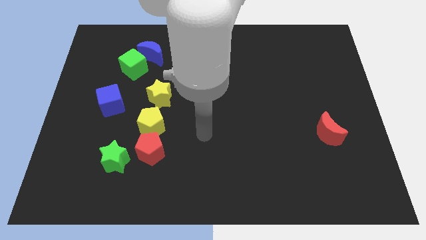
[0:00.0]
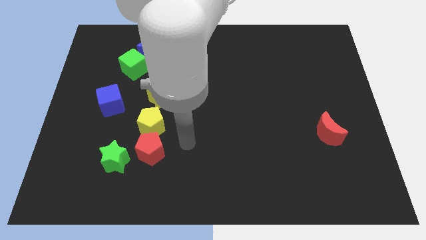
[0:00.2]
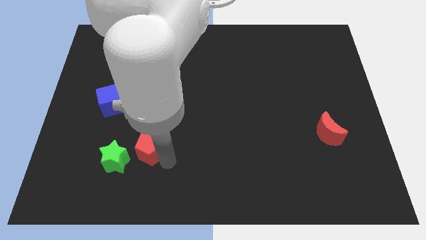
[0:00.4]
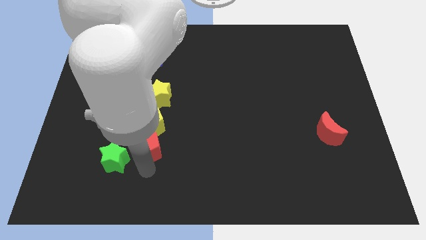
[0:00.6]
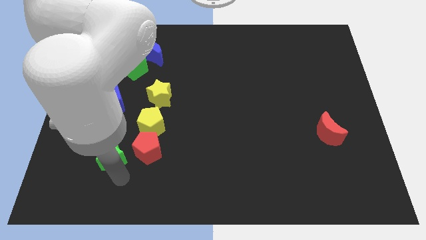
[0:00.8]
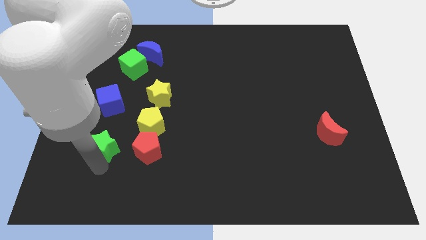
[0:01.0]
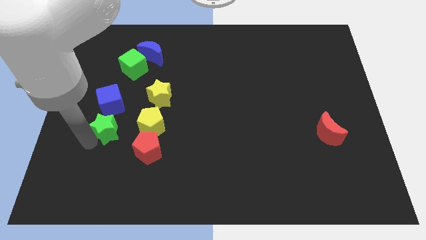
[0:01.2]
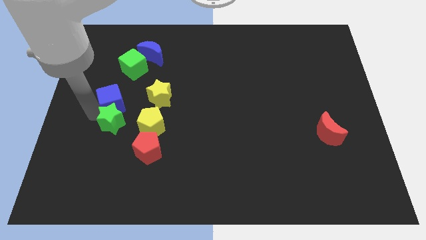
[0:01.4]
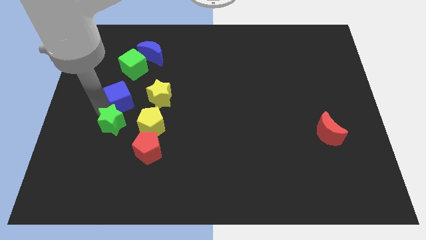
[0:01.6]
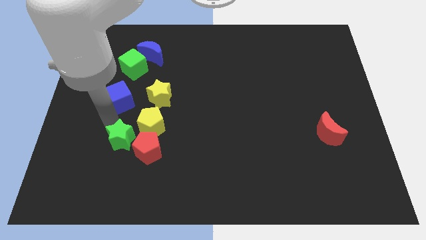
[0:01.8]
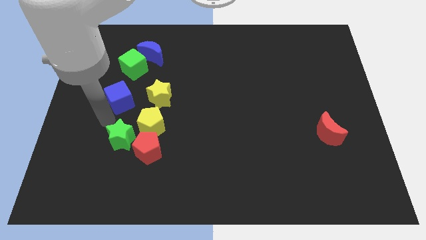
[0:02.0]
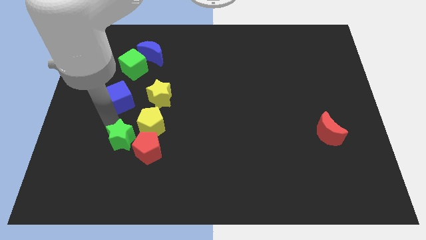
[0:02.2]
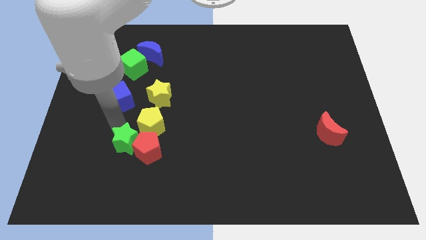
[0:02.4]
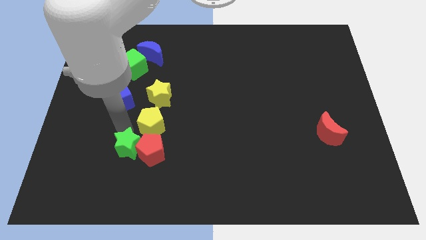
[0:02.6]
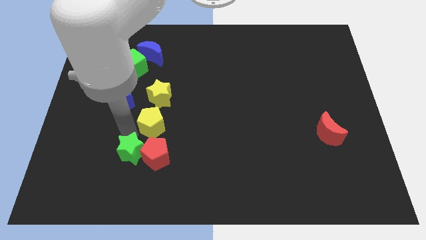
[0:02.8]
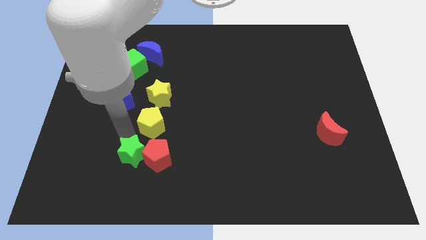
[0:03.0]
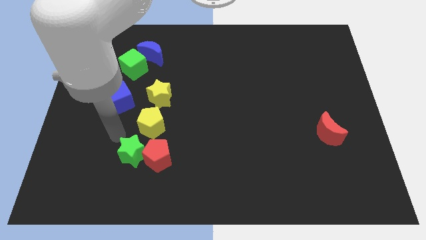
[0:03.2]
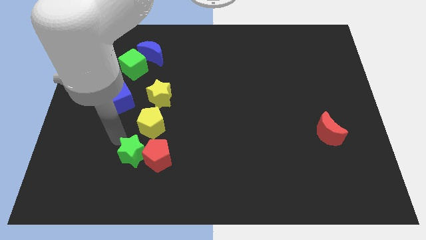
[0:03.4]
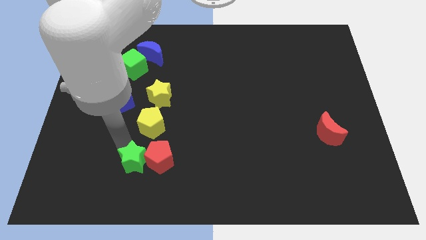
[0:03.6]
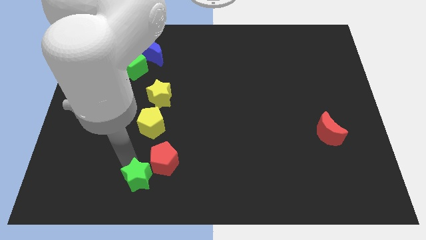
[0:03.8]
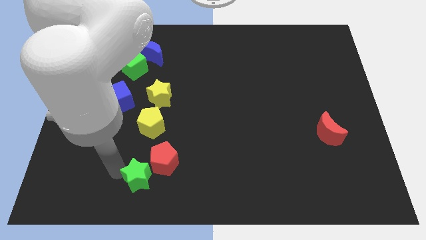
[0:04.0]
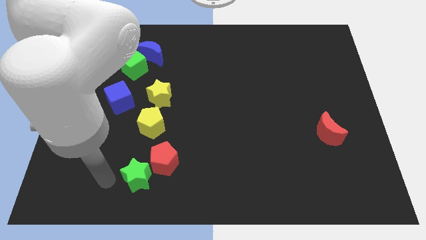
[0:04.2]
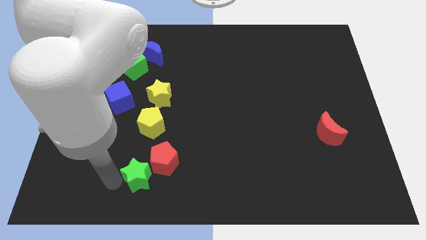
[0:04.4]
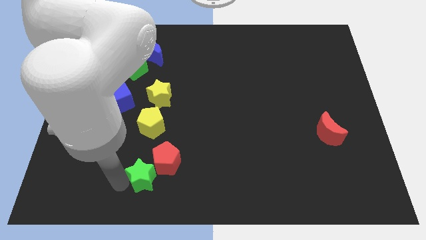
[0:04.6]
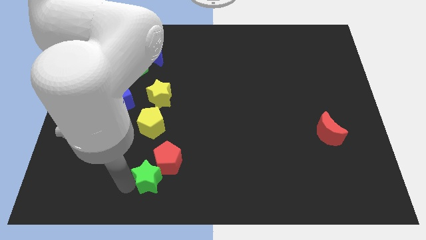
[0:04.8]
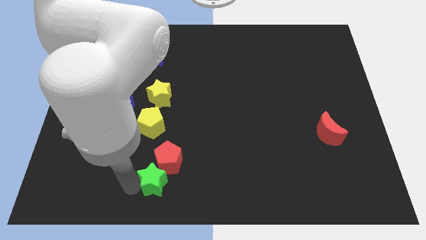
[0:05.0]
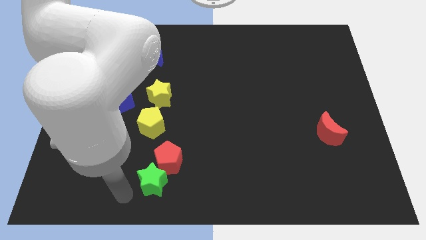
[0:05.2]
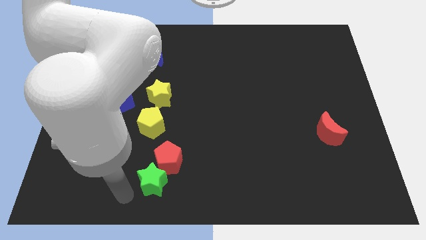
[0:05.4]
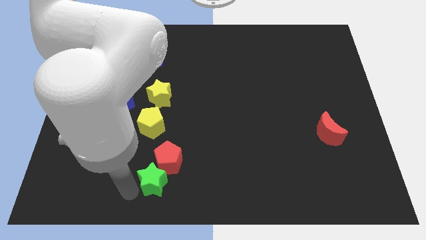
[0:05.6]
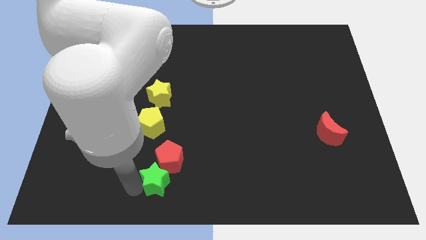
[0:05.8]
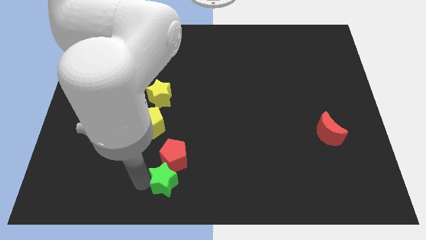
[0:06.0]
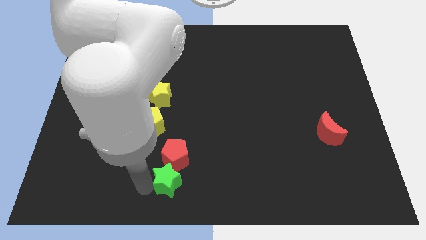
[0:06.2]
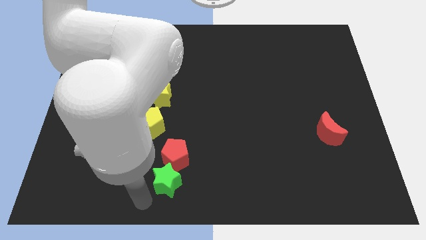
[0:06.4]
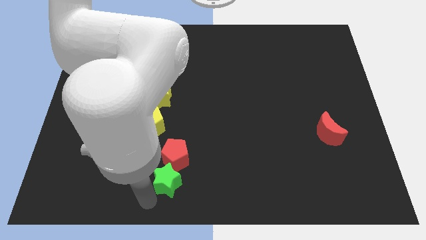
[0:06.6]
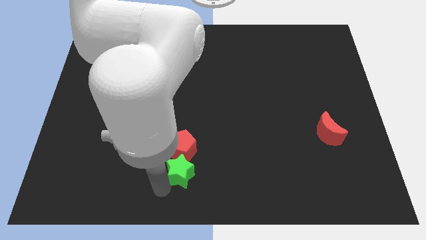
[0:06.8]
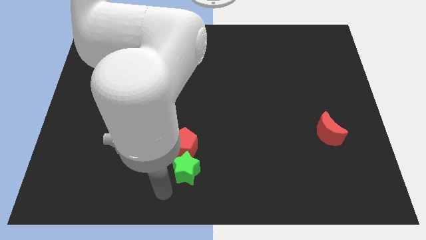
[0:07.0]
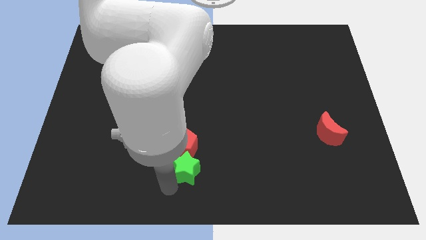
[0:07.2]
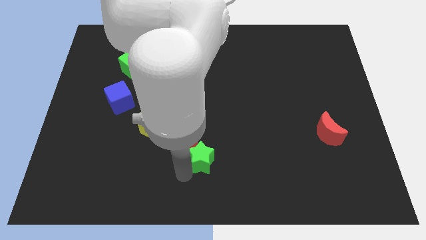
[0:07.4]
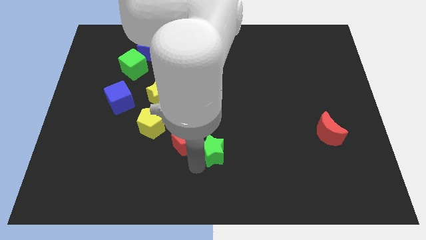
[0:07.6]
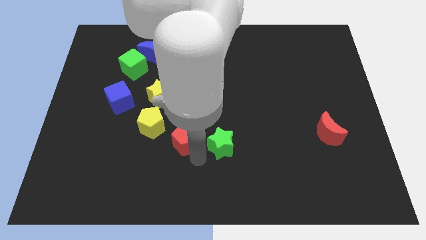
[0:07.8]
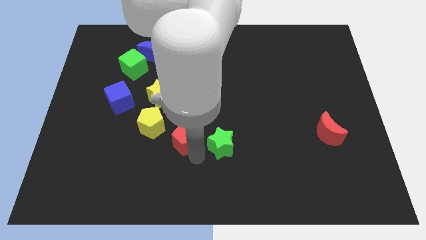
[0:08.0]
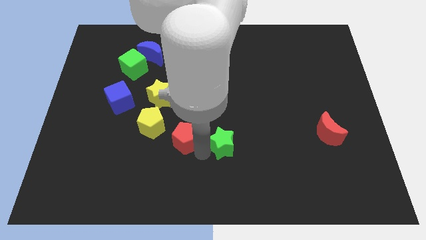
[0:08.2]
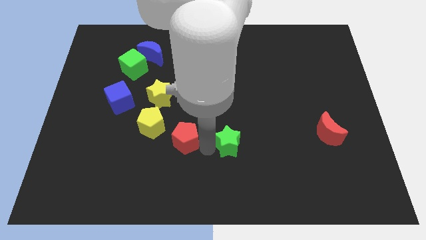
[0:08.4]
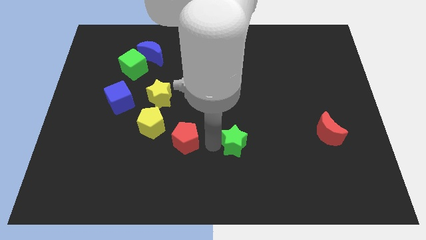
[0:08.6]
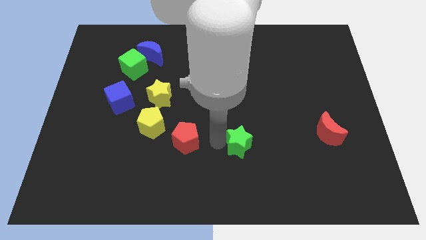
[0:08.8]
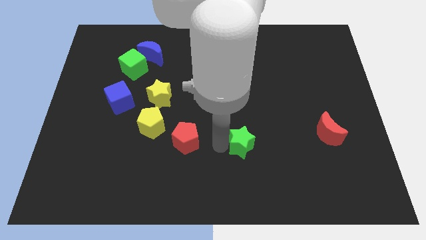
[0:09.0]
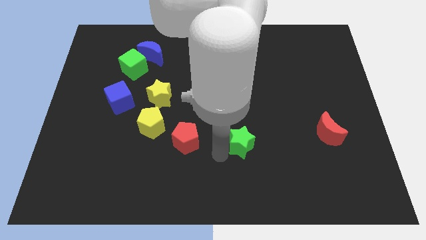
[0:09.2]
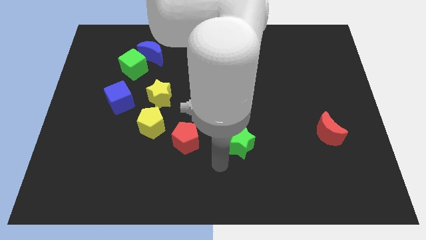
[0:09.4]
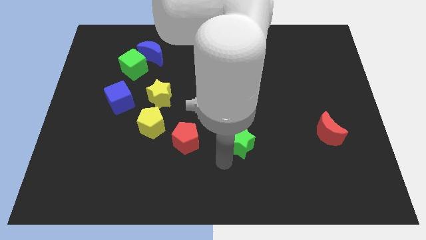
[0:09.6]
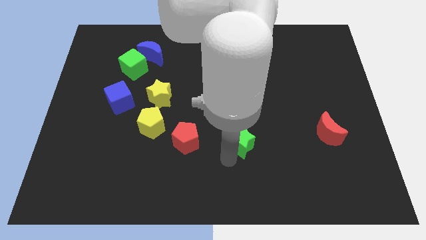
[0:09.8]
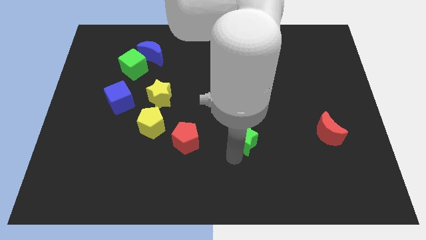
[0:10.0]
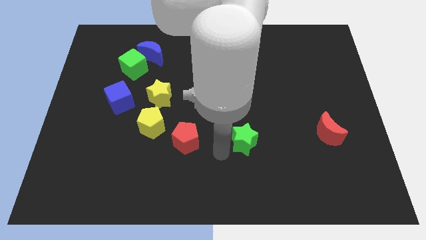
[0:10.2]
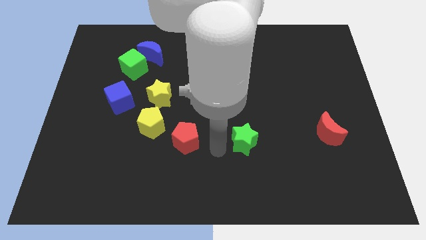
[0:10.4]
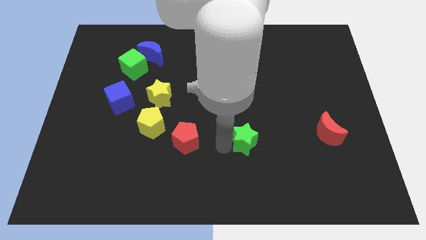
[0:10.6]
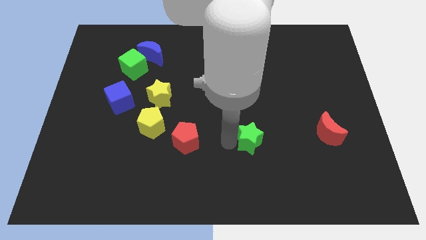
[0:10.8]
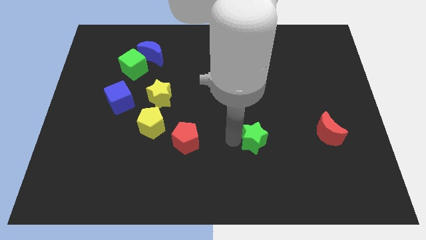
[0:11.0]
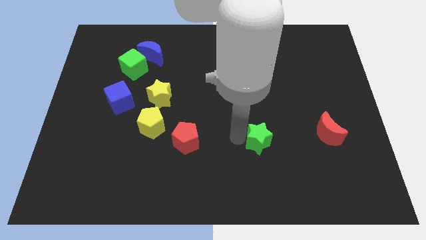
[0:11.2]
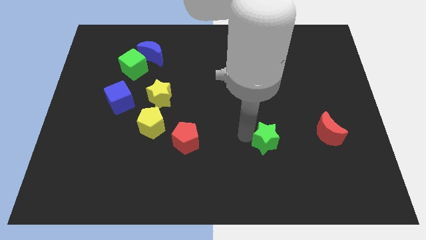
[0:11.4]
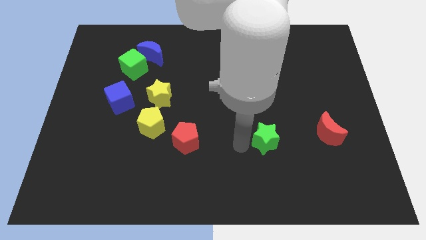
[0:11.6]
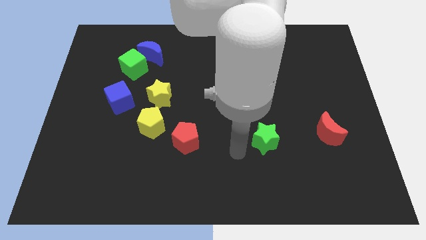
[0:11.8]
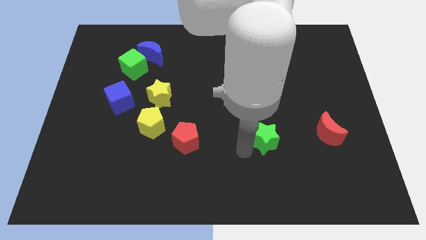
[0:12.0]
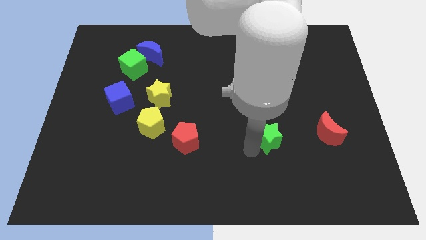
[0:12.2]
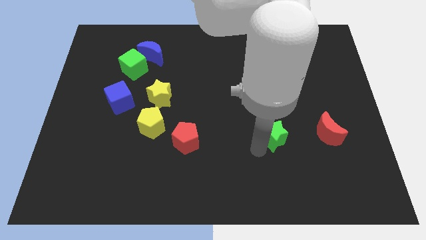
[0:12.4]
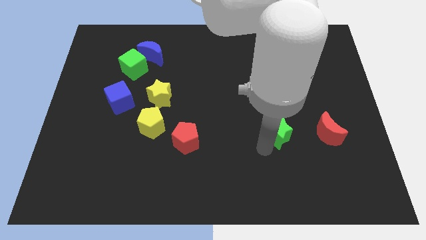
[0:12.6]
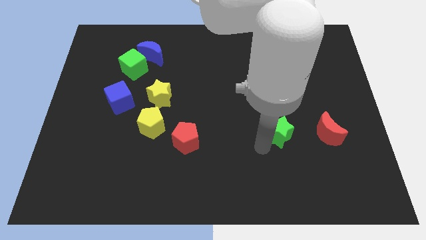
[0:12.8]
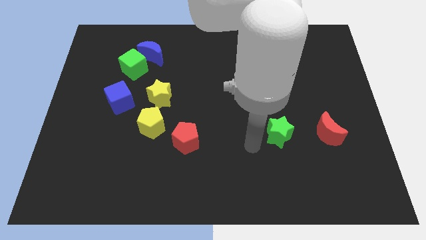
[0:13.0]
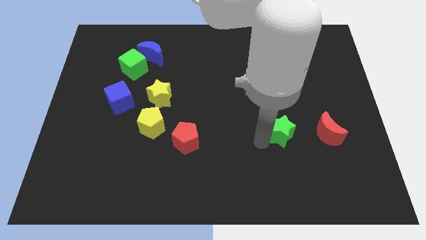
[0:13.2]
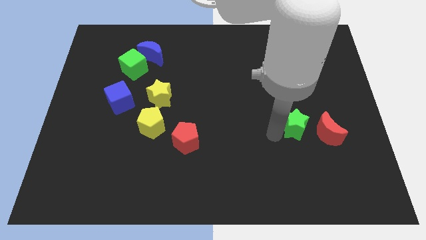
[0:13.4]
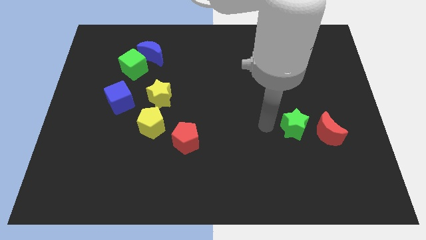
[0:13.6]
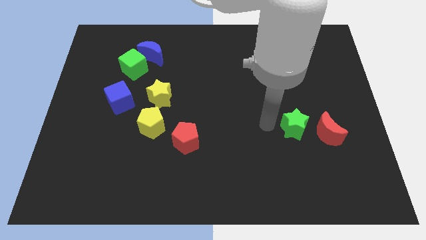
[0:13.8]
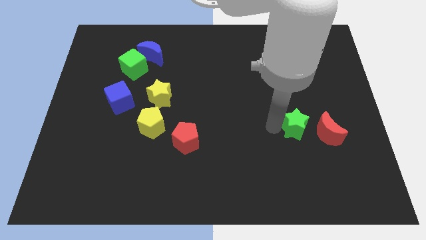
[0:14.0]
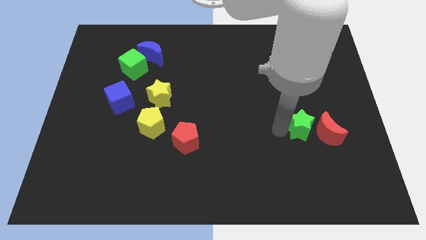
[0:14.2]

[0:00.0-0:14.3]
move the green star to the red moon
